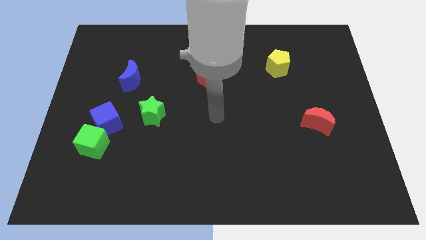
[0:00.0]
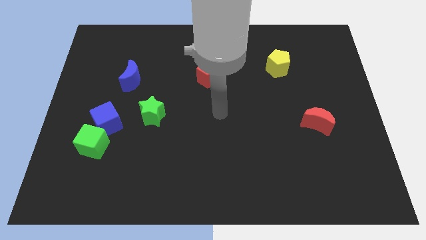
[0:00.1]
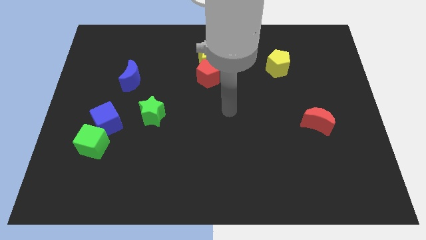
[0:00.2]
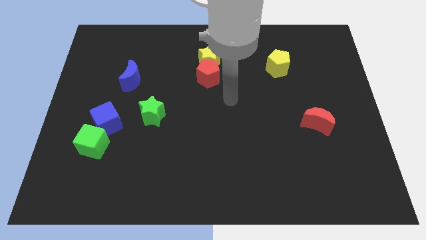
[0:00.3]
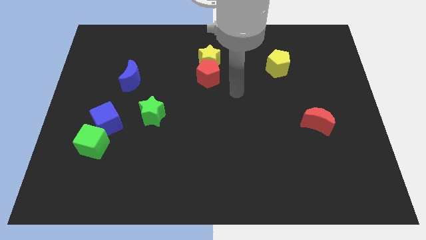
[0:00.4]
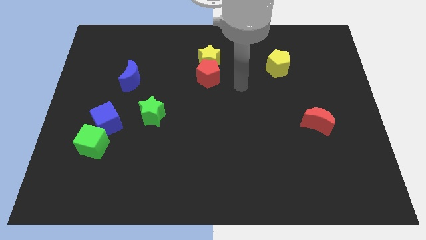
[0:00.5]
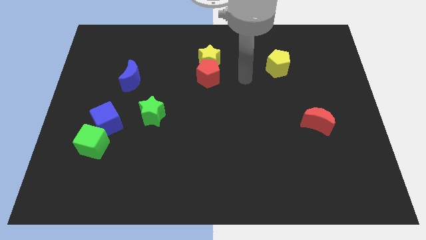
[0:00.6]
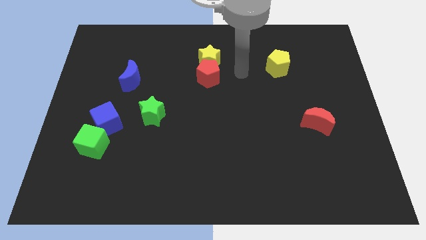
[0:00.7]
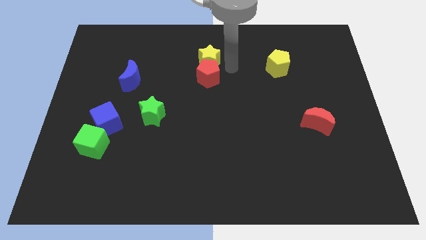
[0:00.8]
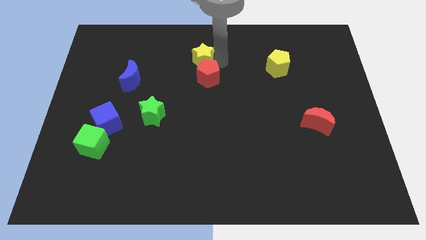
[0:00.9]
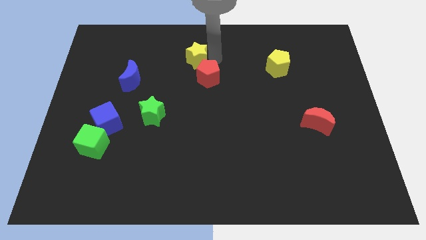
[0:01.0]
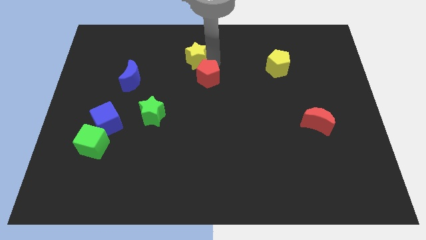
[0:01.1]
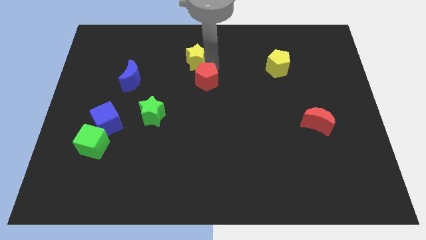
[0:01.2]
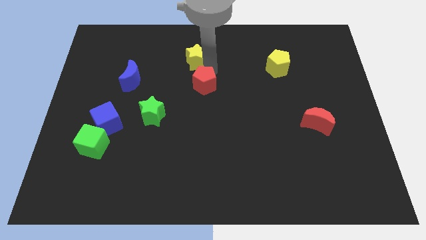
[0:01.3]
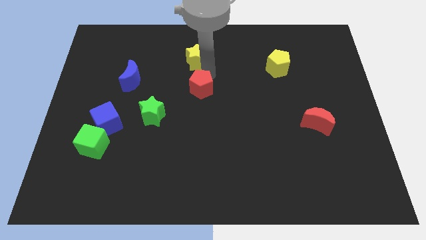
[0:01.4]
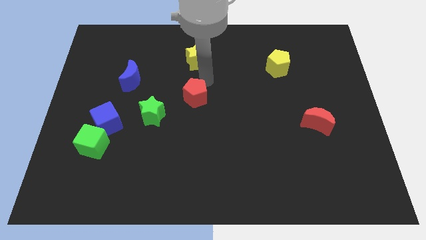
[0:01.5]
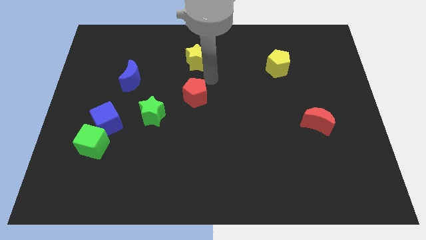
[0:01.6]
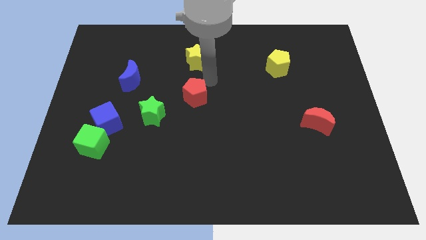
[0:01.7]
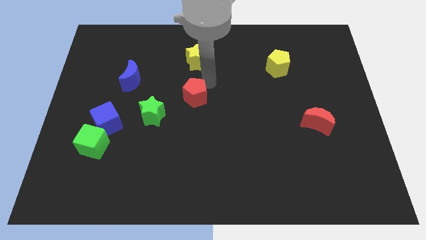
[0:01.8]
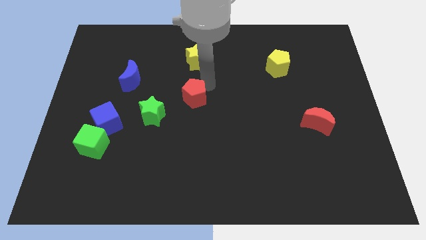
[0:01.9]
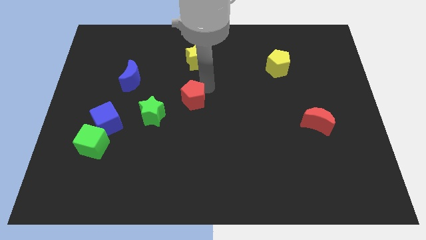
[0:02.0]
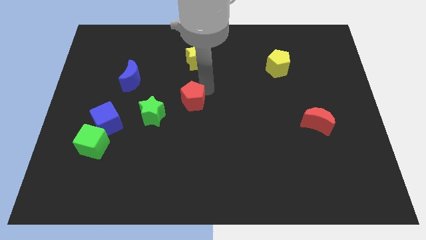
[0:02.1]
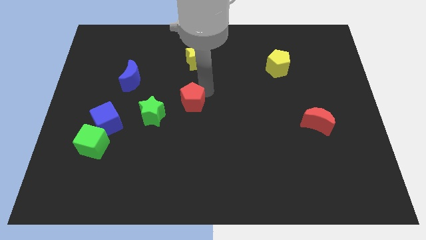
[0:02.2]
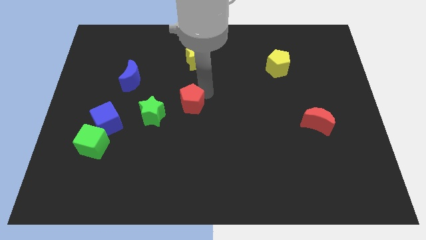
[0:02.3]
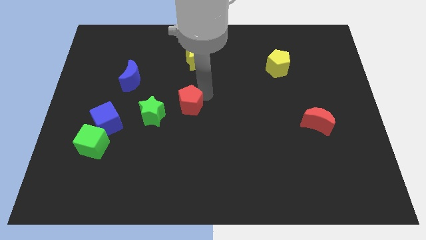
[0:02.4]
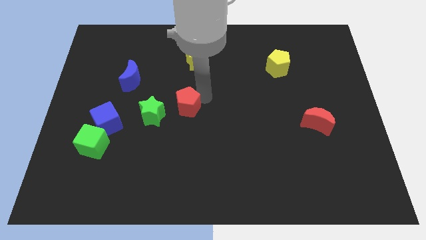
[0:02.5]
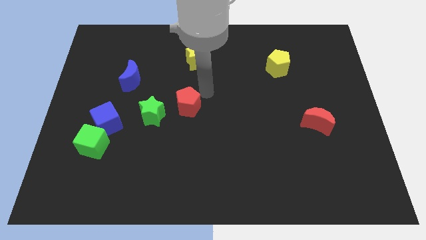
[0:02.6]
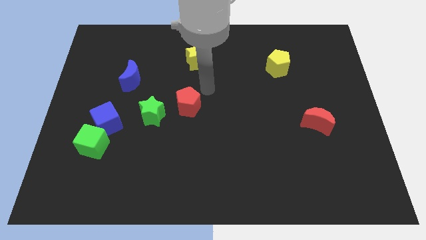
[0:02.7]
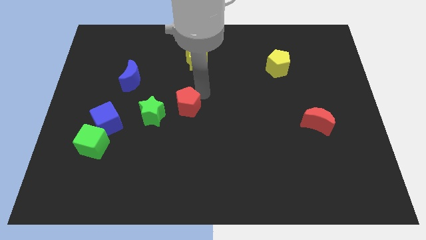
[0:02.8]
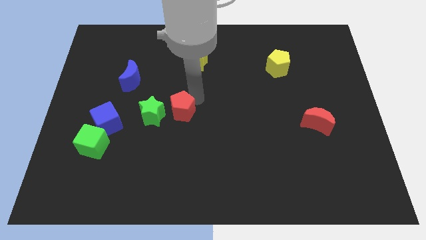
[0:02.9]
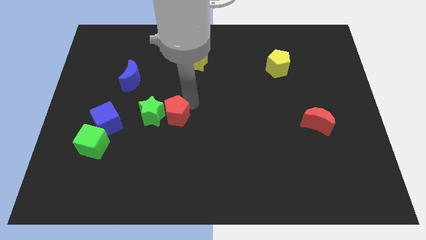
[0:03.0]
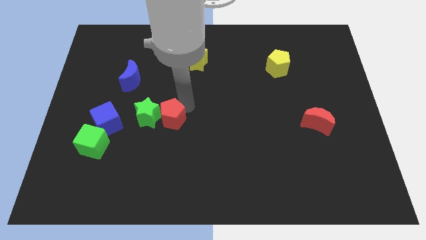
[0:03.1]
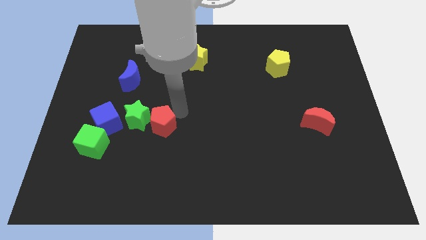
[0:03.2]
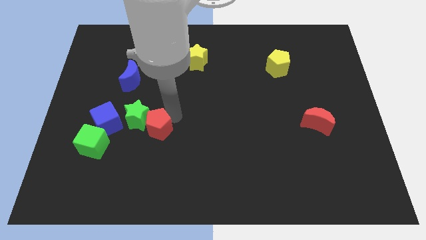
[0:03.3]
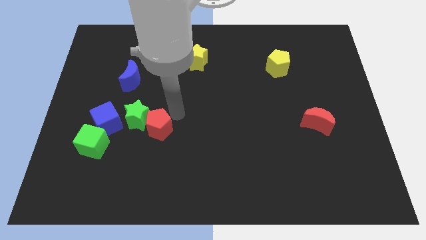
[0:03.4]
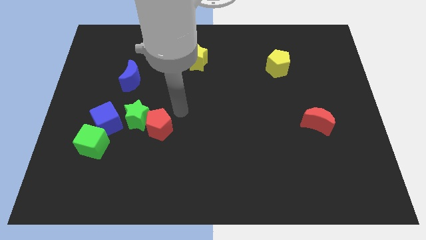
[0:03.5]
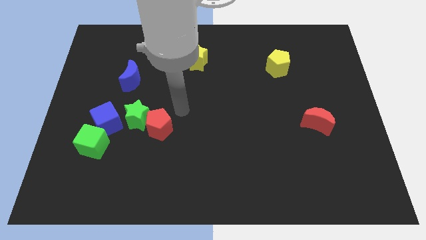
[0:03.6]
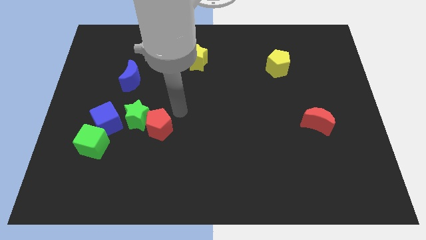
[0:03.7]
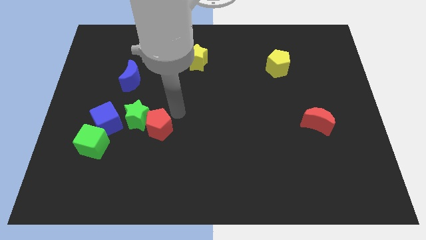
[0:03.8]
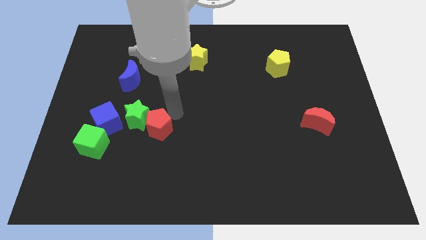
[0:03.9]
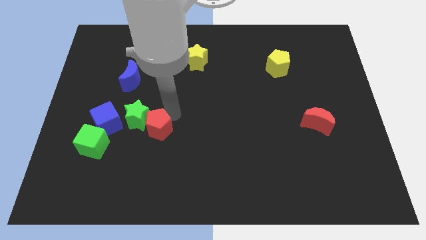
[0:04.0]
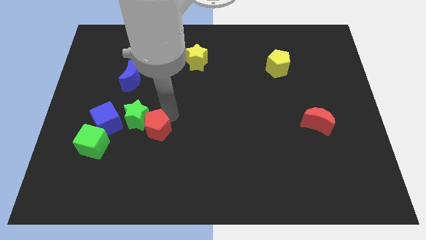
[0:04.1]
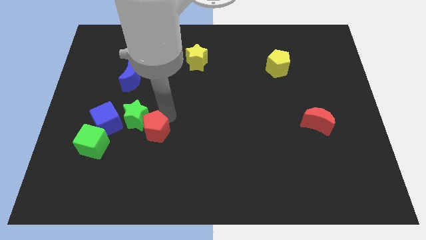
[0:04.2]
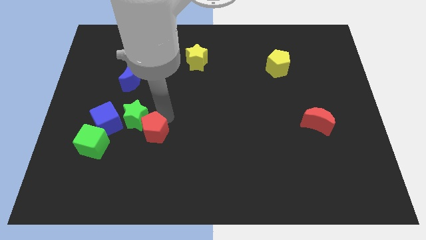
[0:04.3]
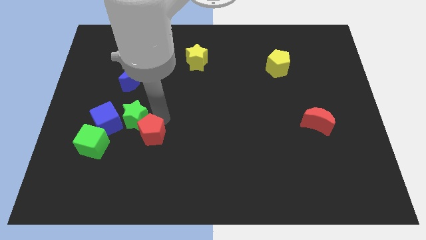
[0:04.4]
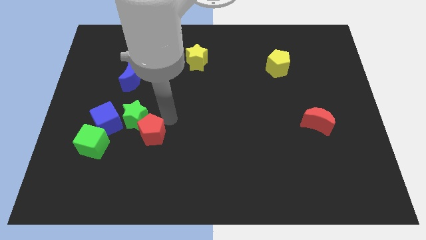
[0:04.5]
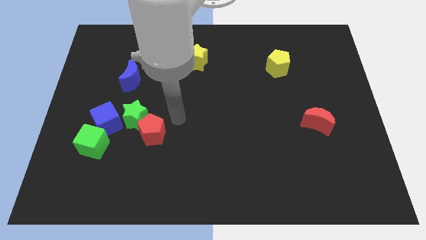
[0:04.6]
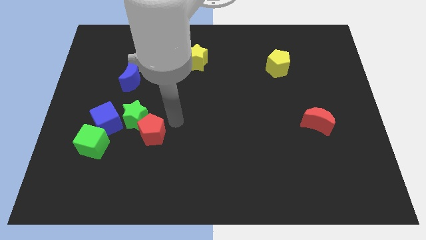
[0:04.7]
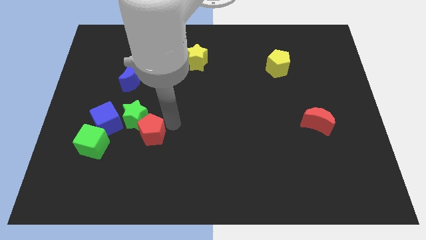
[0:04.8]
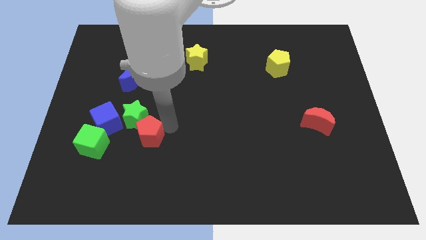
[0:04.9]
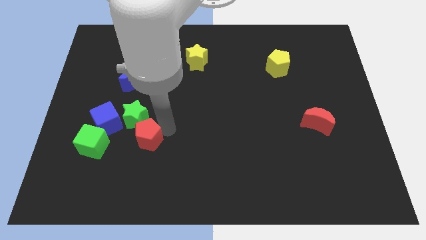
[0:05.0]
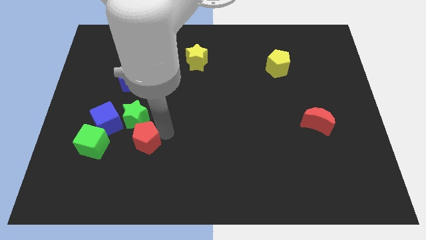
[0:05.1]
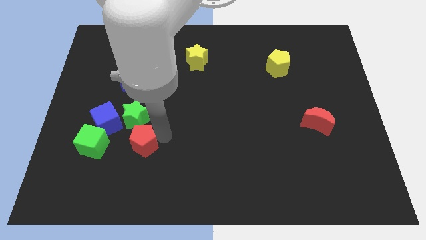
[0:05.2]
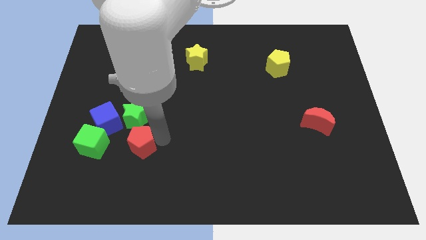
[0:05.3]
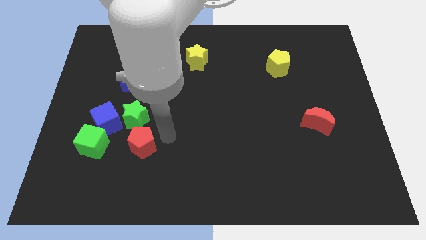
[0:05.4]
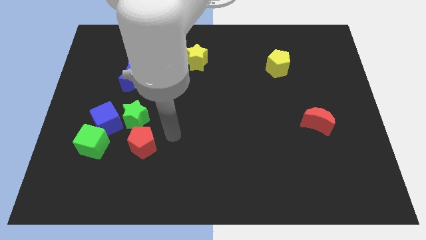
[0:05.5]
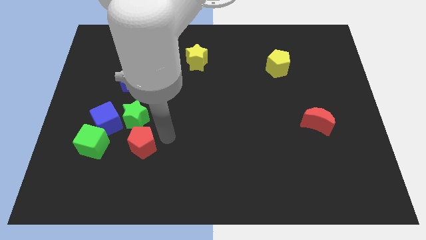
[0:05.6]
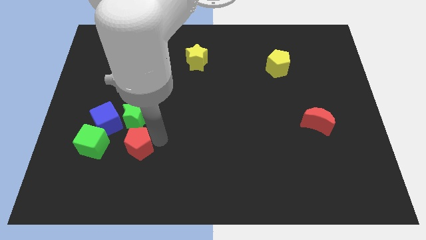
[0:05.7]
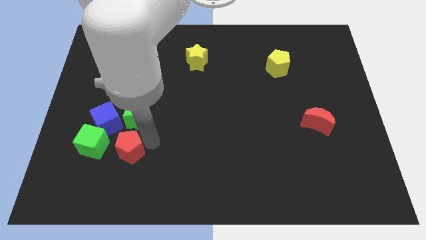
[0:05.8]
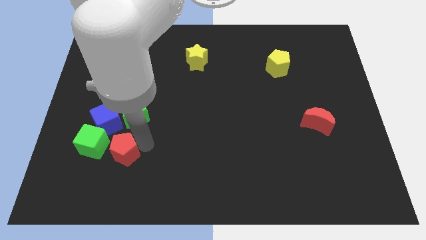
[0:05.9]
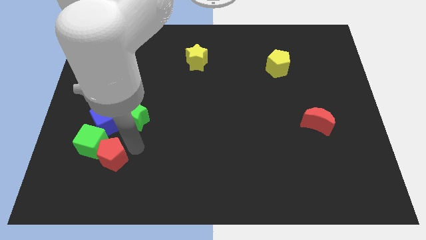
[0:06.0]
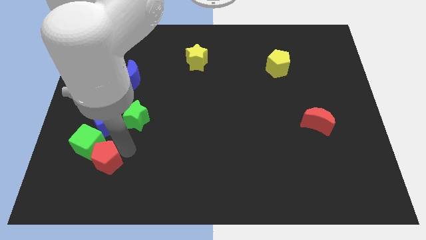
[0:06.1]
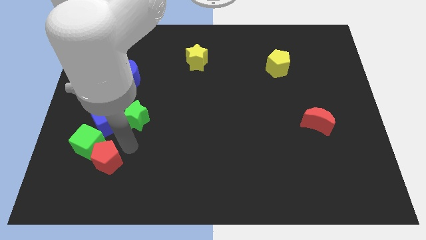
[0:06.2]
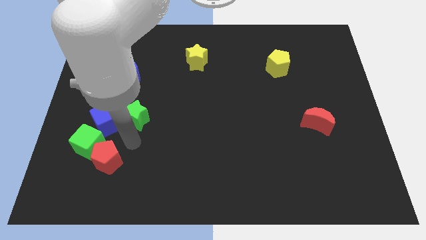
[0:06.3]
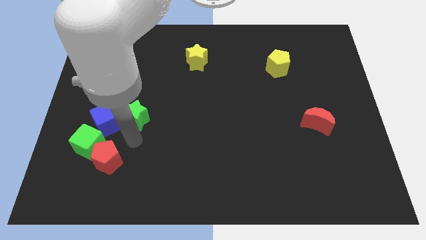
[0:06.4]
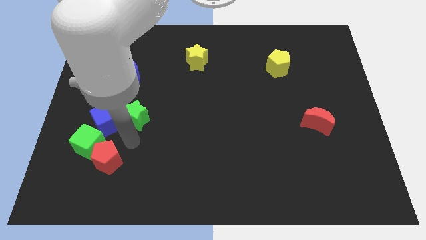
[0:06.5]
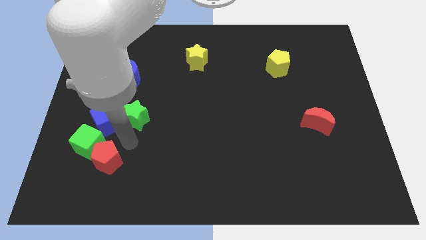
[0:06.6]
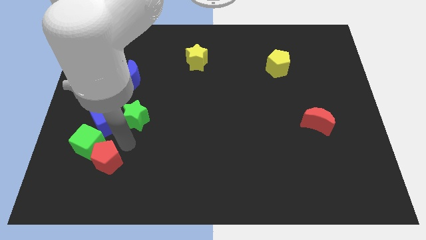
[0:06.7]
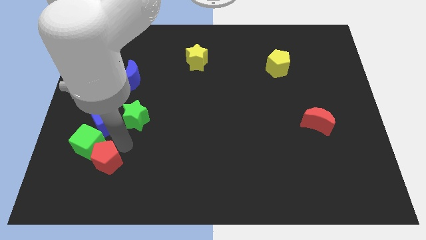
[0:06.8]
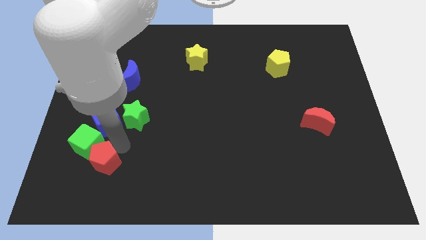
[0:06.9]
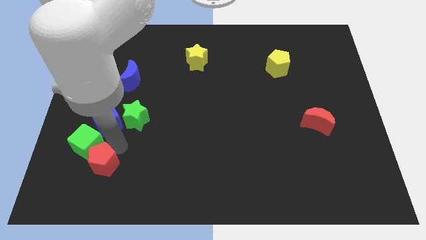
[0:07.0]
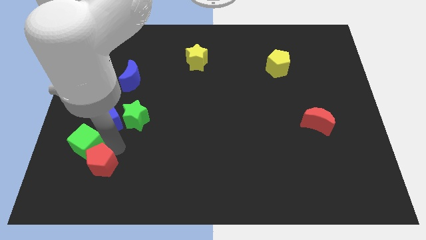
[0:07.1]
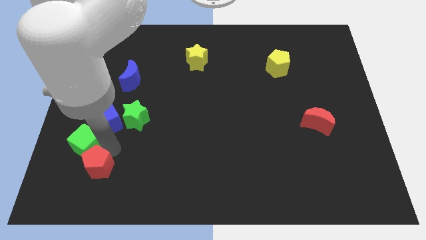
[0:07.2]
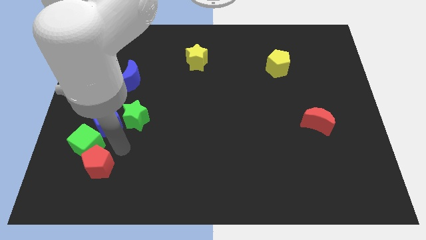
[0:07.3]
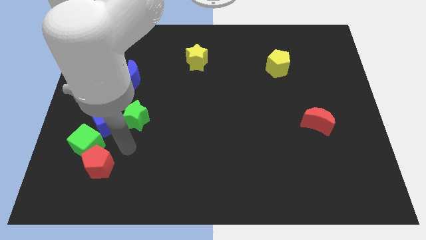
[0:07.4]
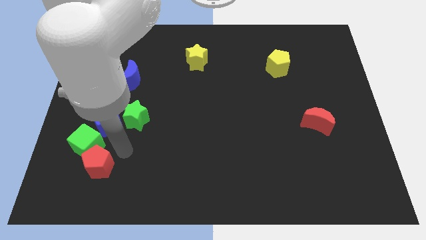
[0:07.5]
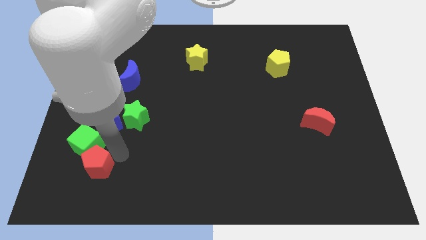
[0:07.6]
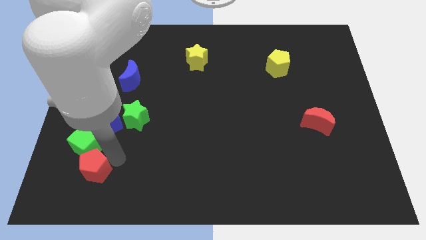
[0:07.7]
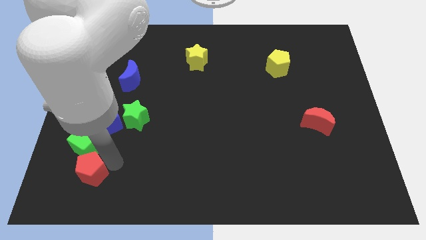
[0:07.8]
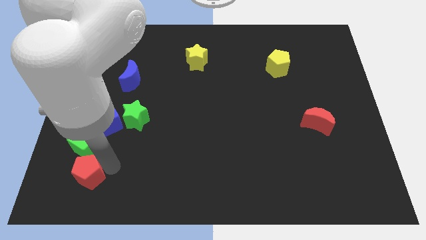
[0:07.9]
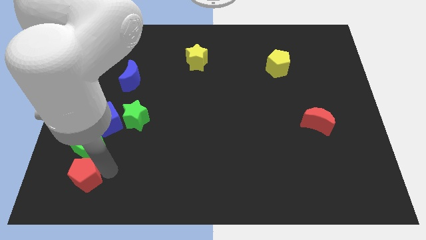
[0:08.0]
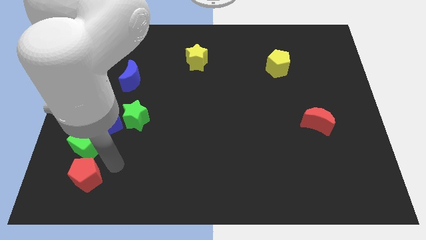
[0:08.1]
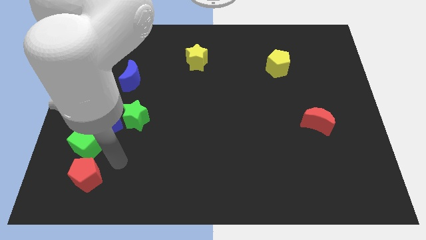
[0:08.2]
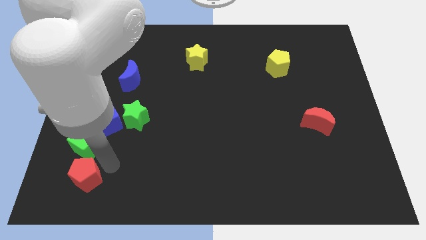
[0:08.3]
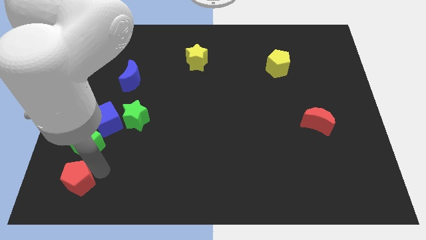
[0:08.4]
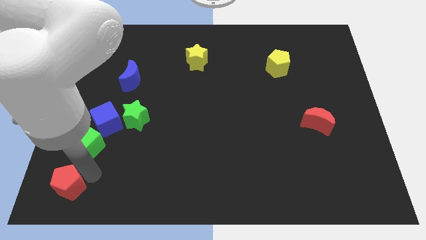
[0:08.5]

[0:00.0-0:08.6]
slide the red pentagon to the bottom left of the board
